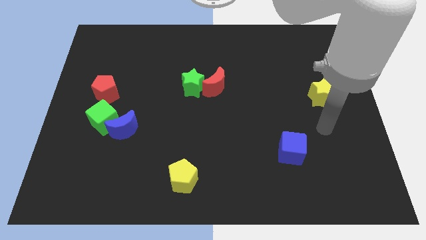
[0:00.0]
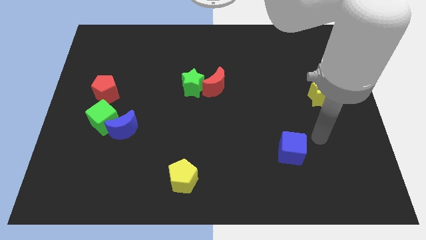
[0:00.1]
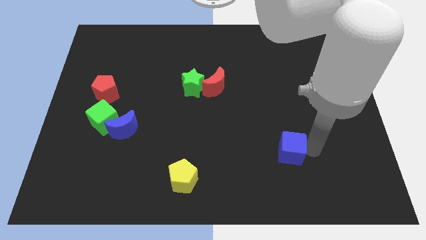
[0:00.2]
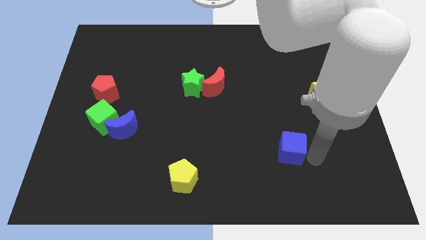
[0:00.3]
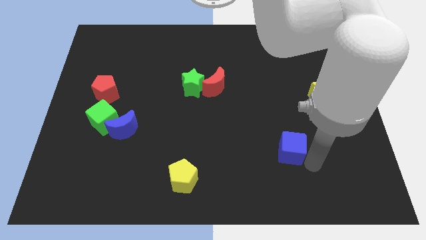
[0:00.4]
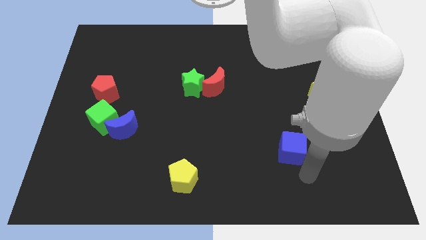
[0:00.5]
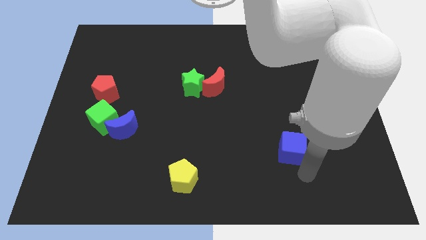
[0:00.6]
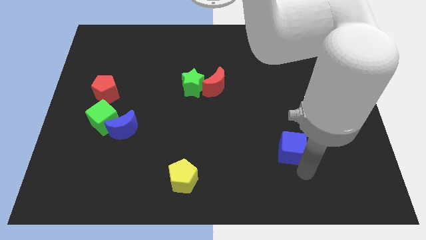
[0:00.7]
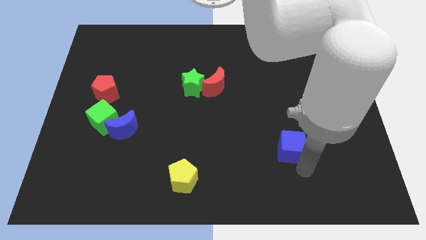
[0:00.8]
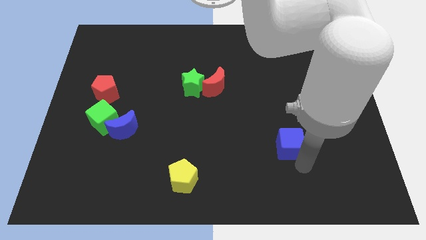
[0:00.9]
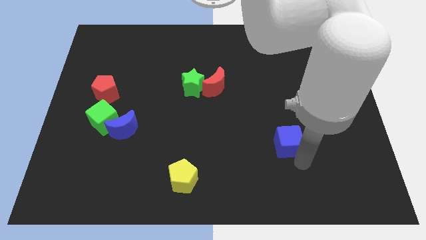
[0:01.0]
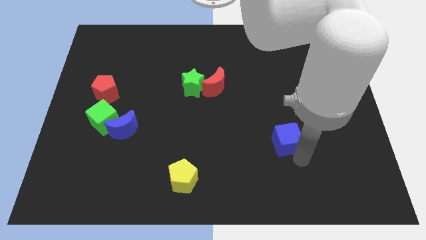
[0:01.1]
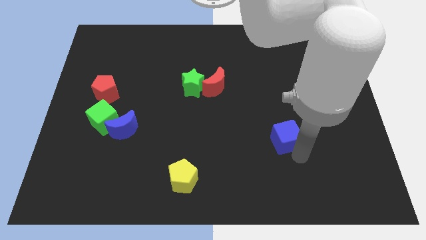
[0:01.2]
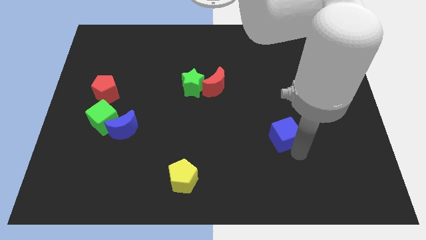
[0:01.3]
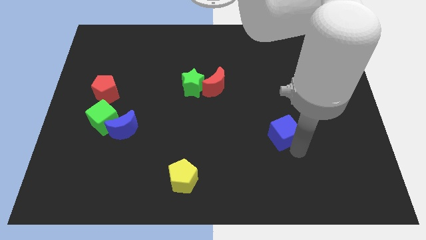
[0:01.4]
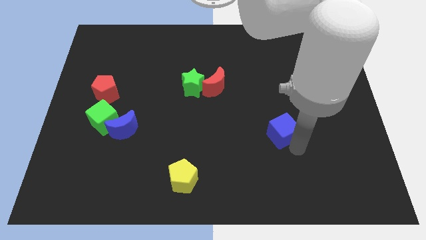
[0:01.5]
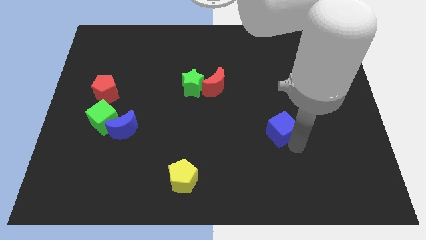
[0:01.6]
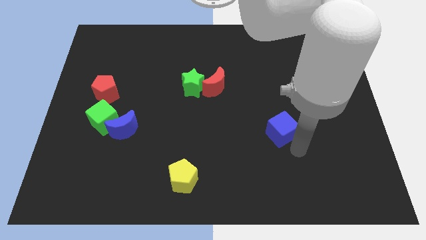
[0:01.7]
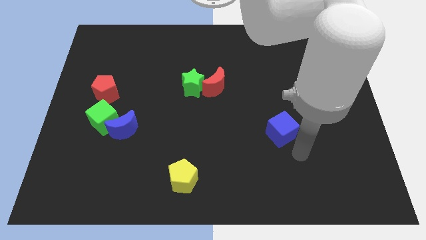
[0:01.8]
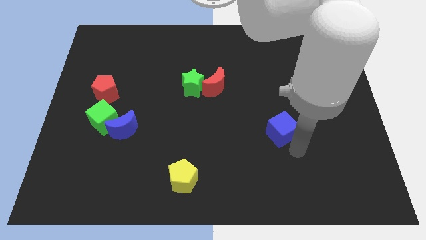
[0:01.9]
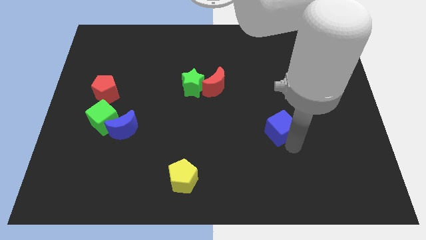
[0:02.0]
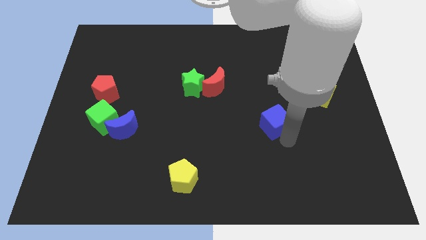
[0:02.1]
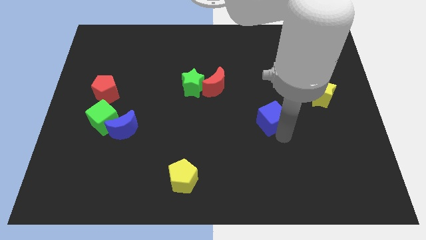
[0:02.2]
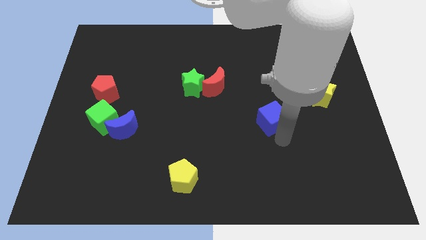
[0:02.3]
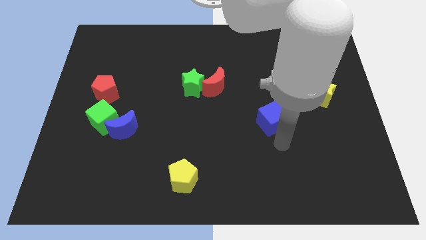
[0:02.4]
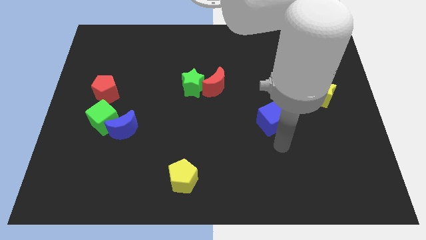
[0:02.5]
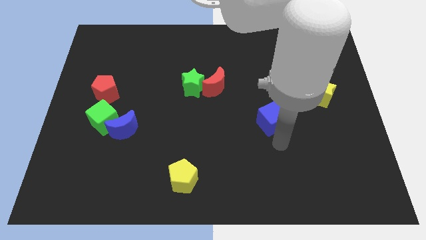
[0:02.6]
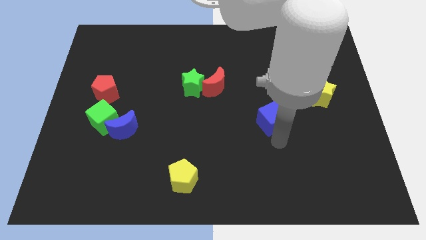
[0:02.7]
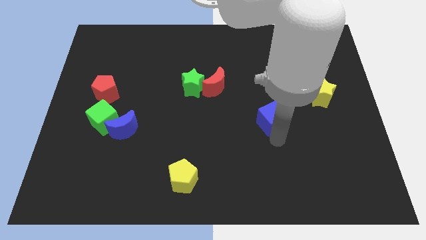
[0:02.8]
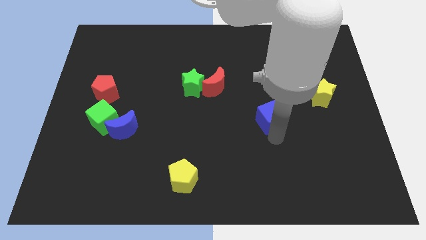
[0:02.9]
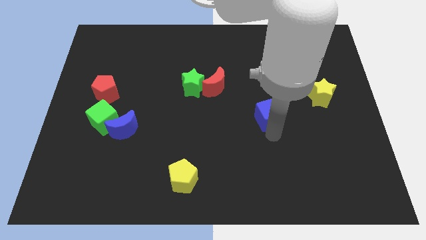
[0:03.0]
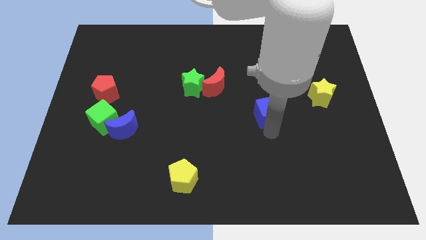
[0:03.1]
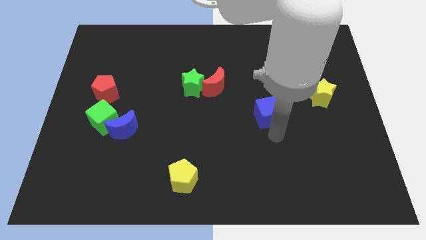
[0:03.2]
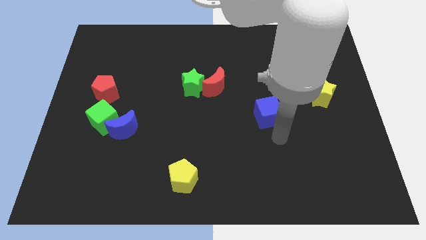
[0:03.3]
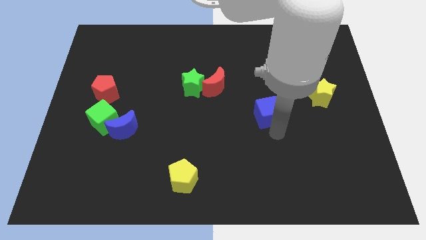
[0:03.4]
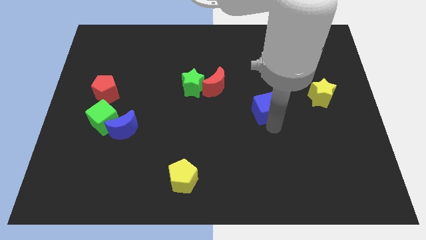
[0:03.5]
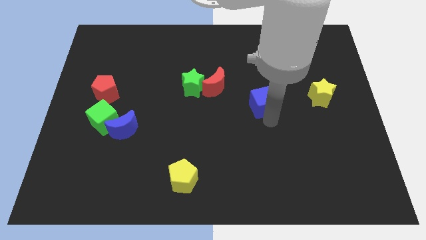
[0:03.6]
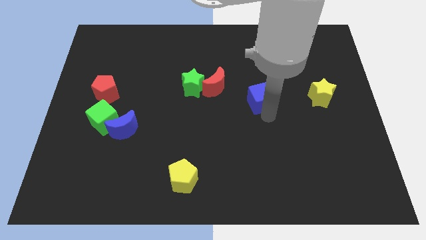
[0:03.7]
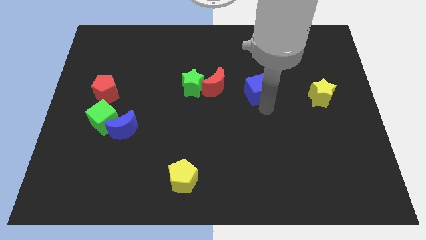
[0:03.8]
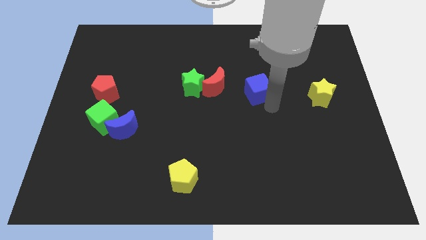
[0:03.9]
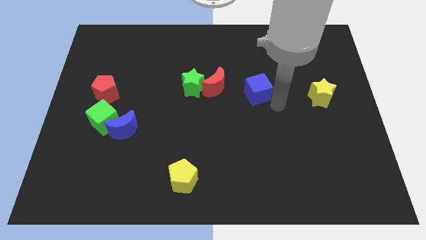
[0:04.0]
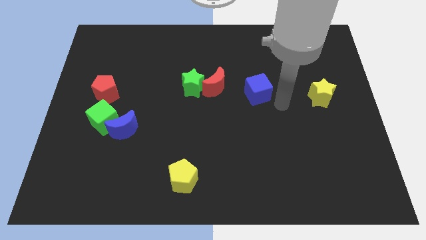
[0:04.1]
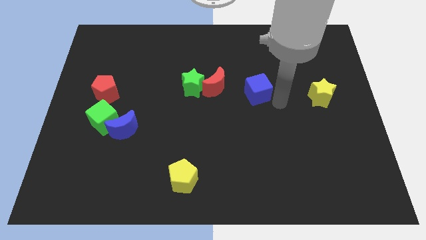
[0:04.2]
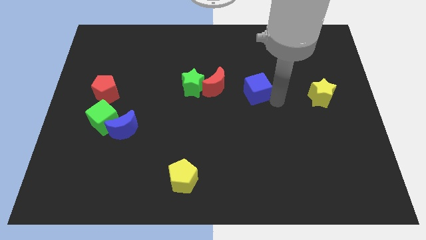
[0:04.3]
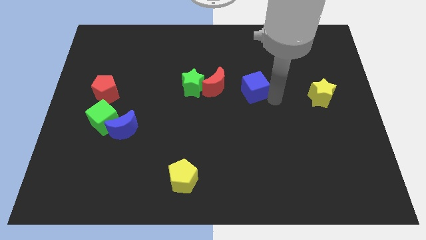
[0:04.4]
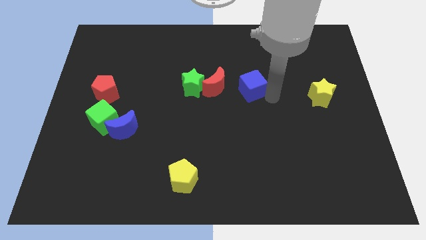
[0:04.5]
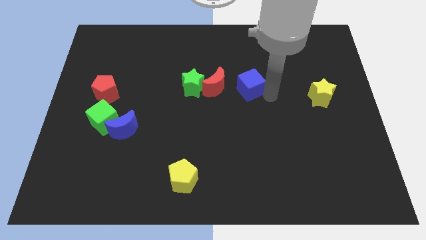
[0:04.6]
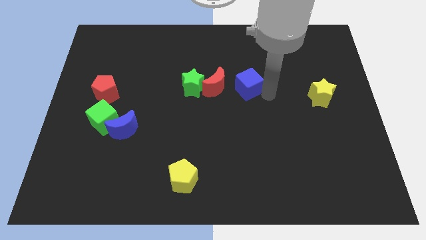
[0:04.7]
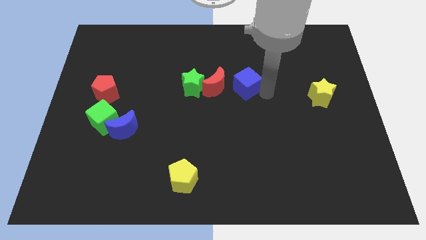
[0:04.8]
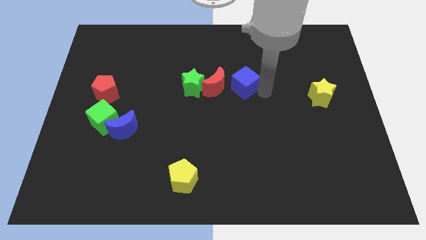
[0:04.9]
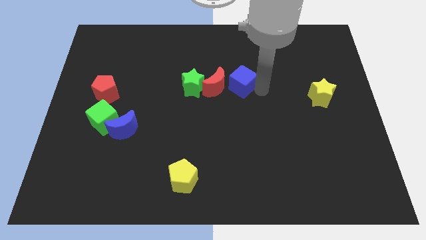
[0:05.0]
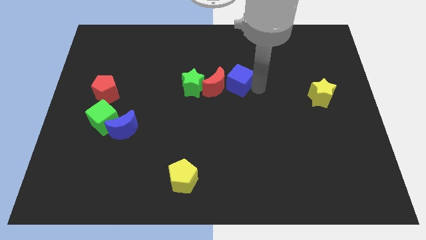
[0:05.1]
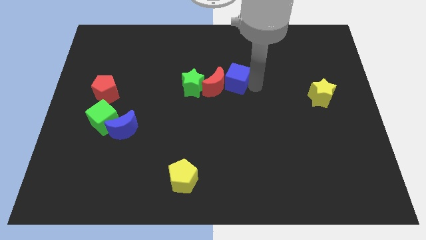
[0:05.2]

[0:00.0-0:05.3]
slide the blue cube upwards and to the left diagonally

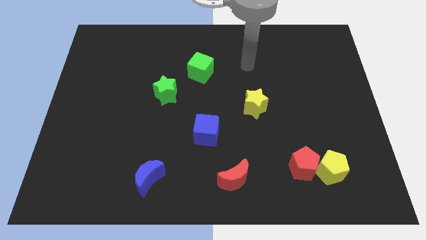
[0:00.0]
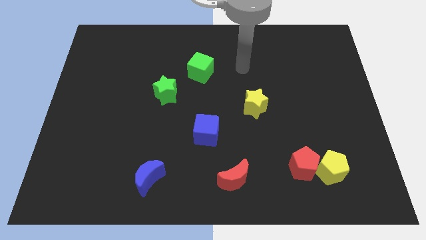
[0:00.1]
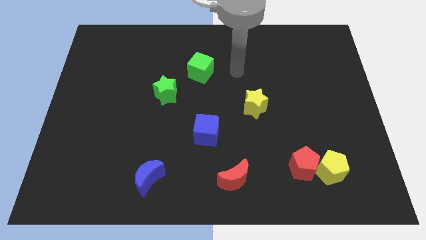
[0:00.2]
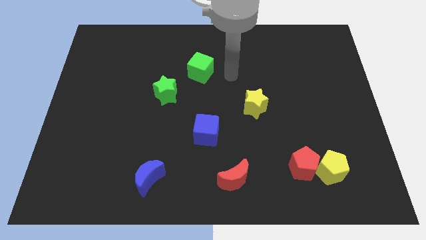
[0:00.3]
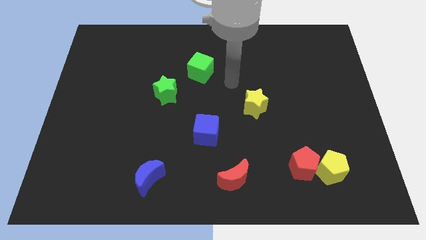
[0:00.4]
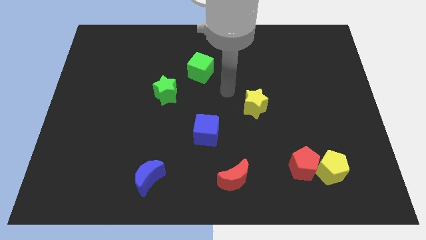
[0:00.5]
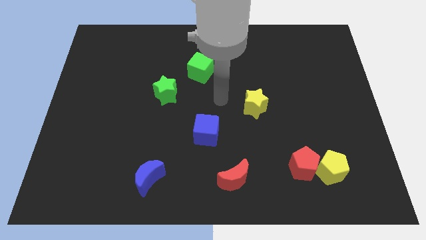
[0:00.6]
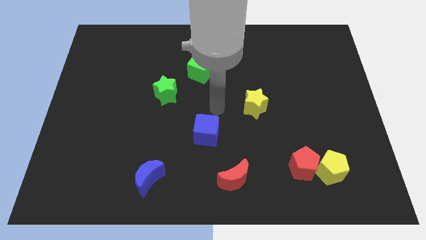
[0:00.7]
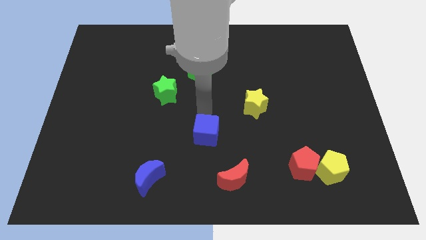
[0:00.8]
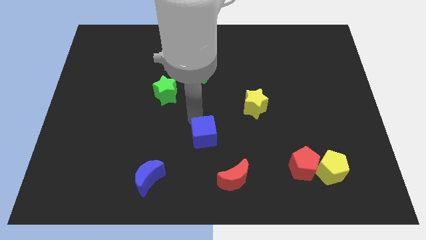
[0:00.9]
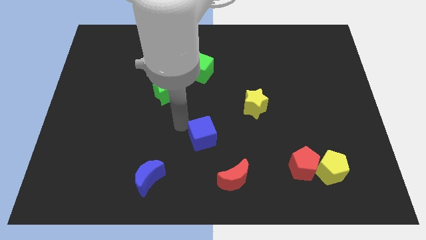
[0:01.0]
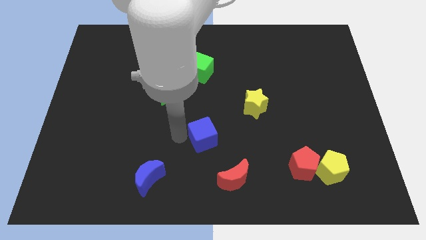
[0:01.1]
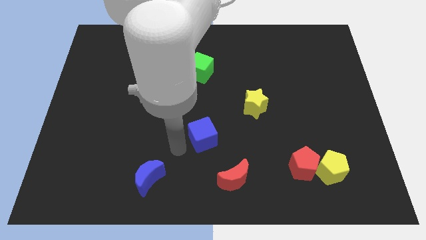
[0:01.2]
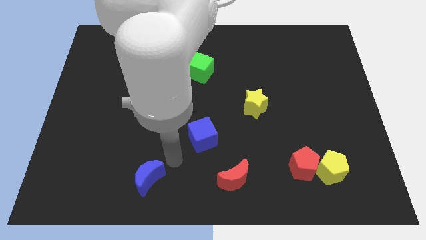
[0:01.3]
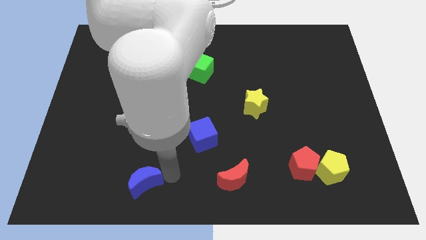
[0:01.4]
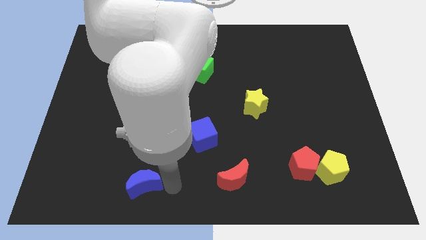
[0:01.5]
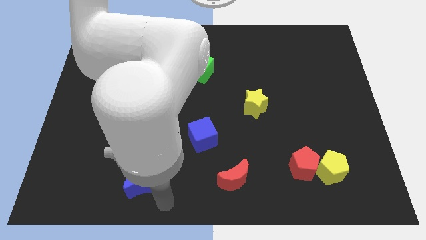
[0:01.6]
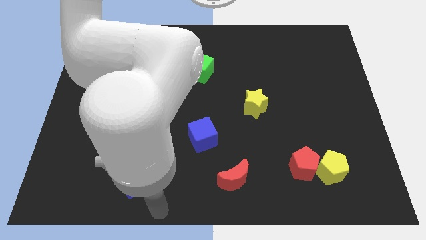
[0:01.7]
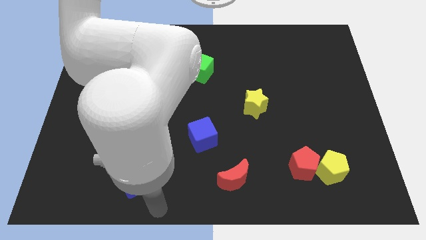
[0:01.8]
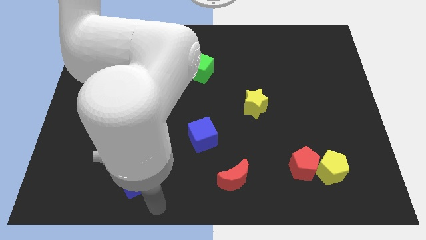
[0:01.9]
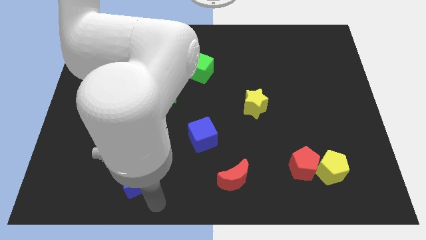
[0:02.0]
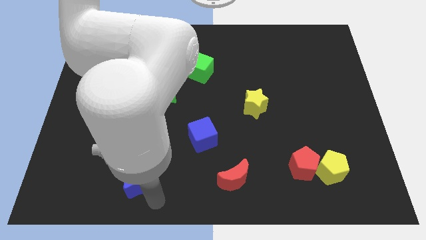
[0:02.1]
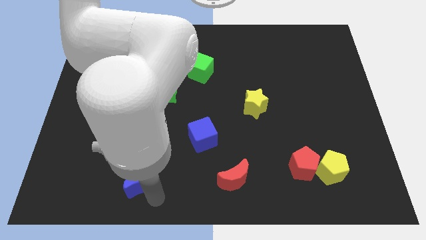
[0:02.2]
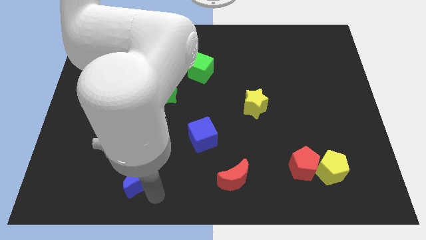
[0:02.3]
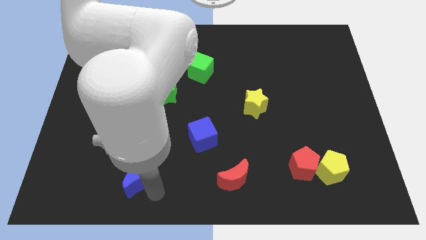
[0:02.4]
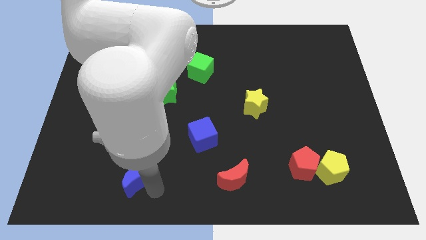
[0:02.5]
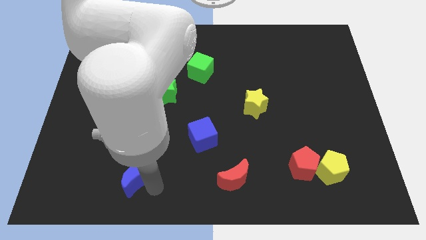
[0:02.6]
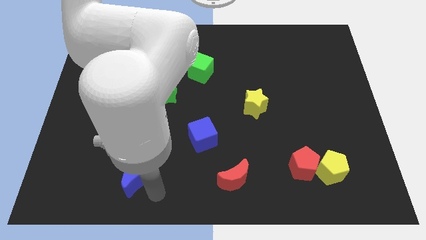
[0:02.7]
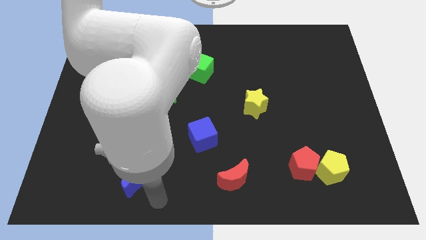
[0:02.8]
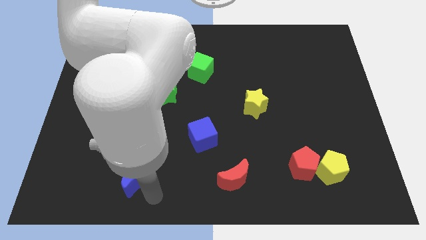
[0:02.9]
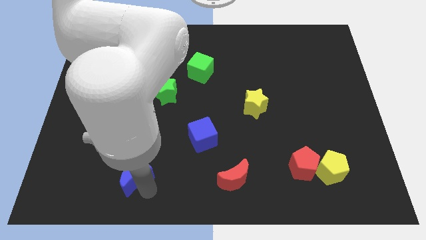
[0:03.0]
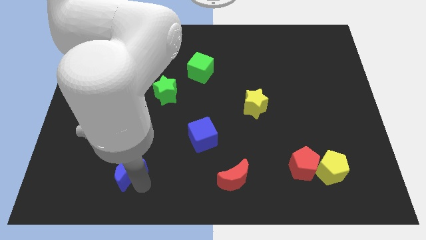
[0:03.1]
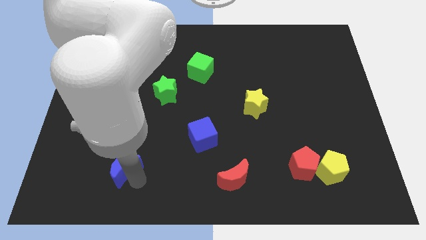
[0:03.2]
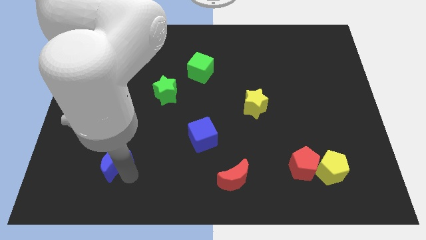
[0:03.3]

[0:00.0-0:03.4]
move the blue moon upwards and left a little bit
